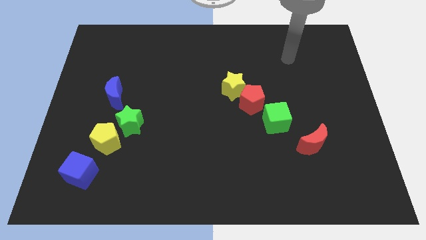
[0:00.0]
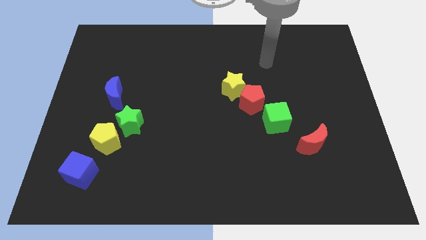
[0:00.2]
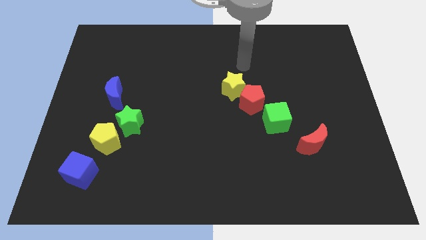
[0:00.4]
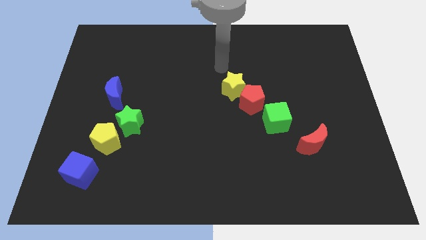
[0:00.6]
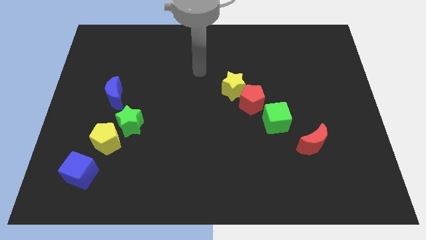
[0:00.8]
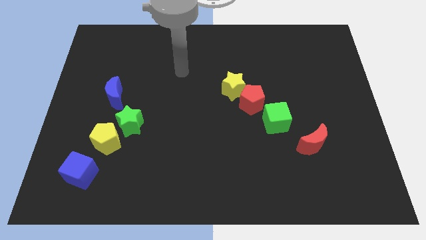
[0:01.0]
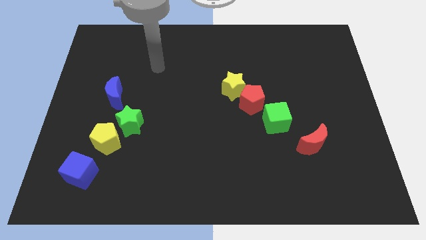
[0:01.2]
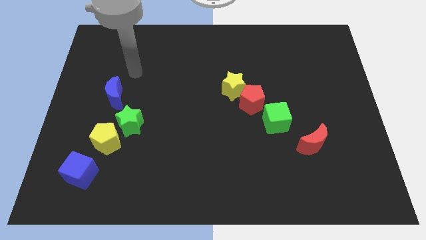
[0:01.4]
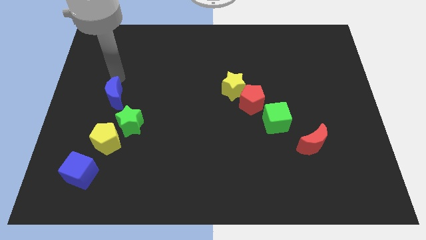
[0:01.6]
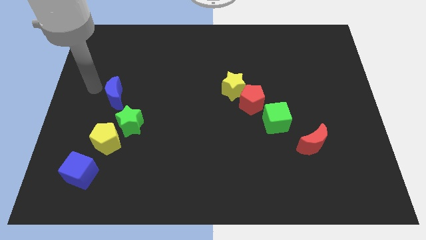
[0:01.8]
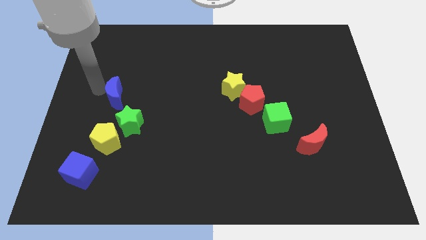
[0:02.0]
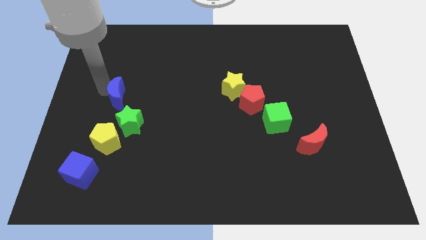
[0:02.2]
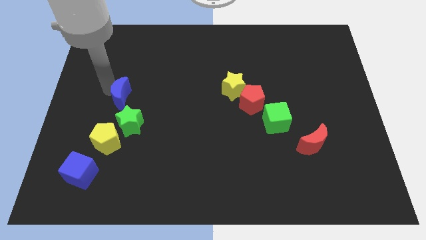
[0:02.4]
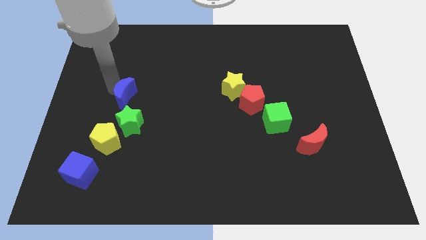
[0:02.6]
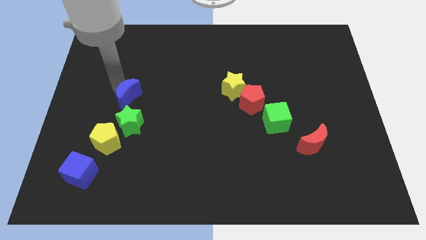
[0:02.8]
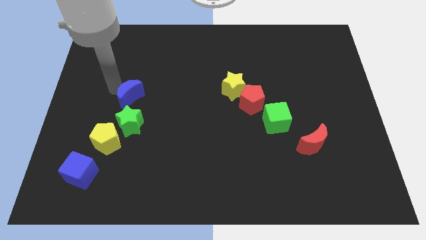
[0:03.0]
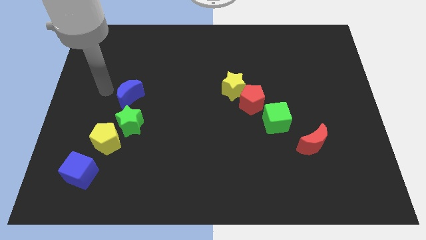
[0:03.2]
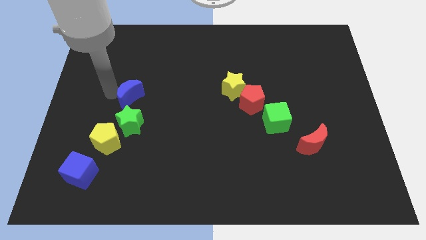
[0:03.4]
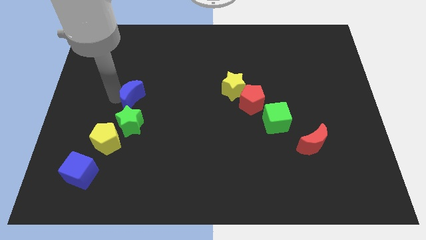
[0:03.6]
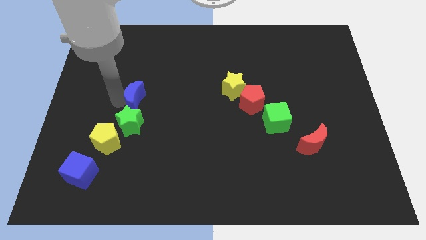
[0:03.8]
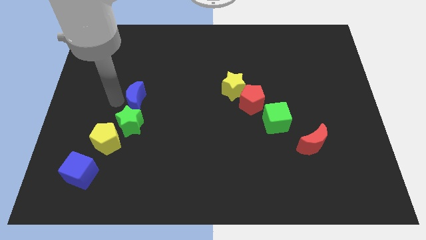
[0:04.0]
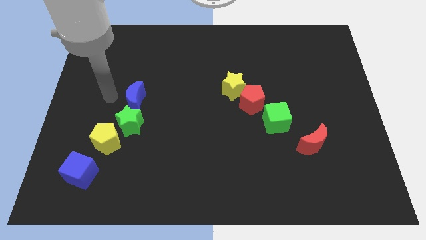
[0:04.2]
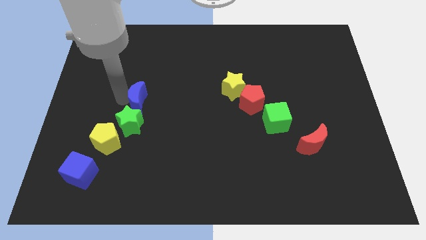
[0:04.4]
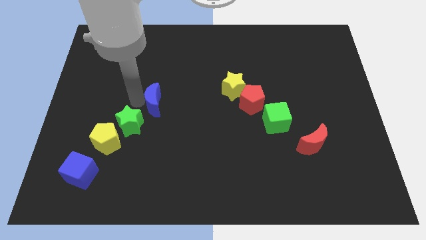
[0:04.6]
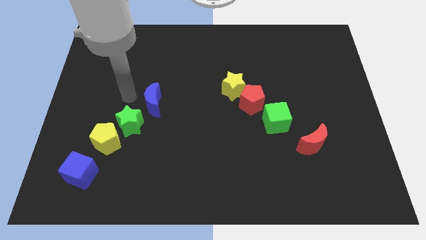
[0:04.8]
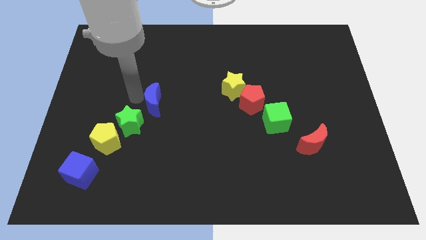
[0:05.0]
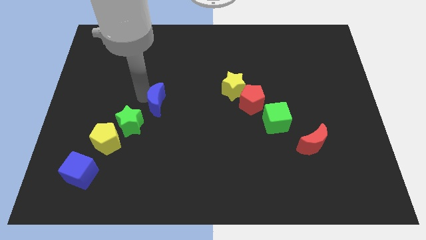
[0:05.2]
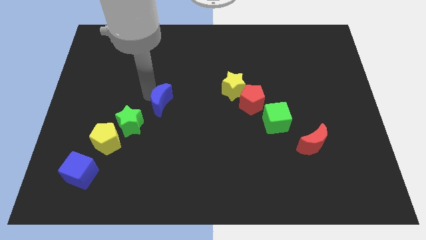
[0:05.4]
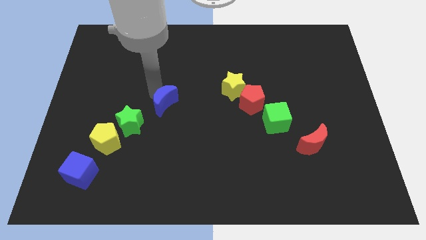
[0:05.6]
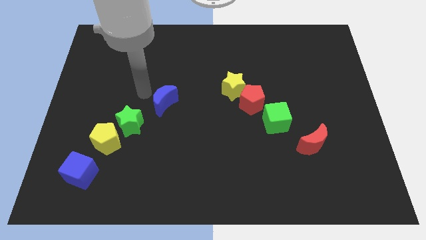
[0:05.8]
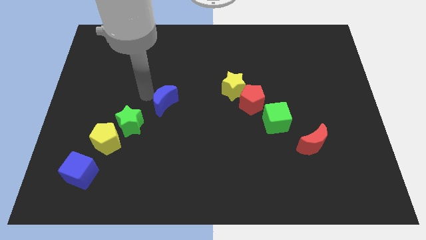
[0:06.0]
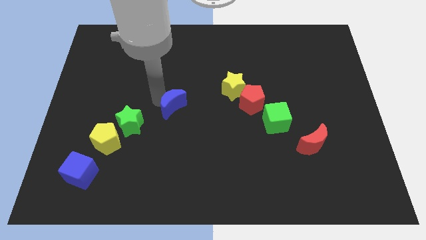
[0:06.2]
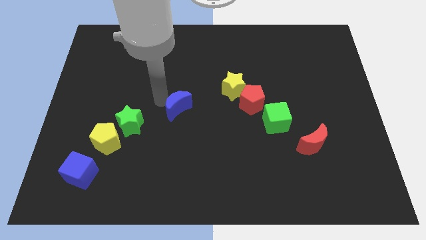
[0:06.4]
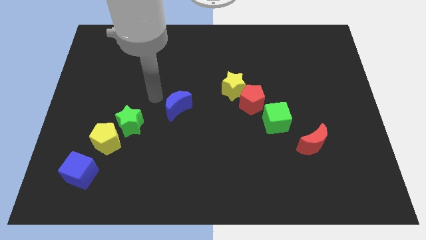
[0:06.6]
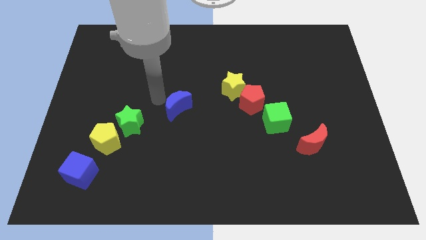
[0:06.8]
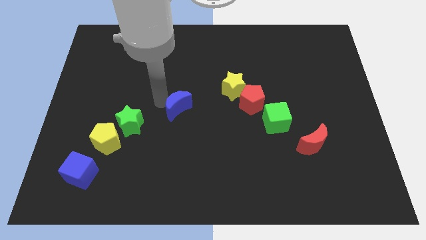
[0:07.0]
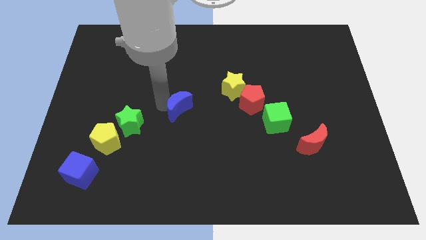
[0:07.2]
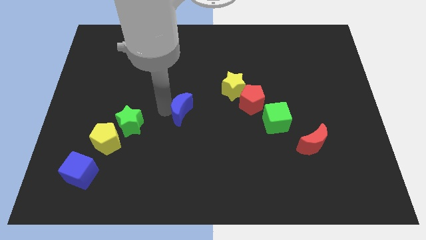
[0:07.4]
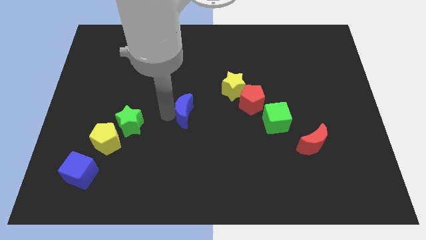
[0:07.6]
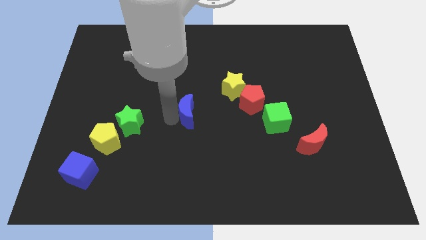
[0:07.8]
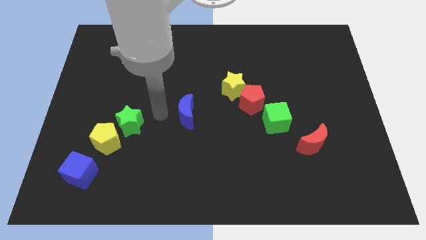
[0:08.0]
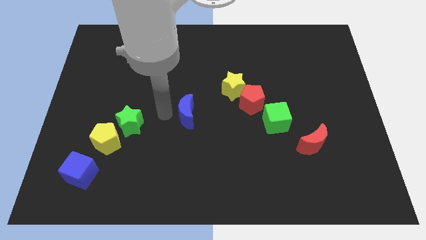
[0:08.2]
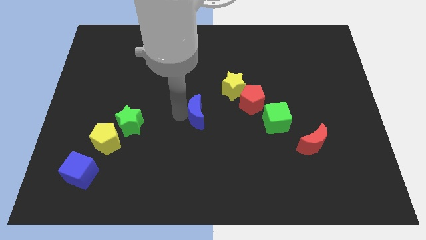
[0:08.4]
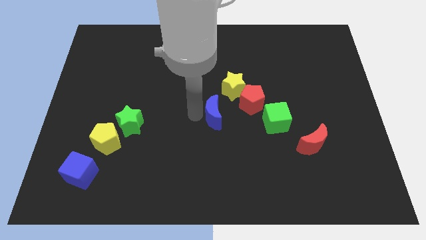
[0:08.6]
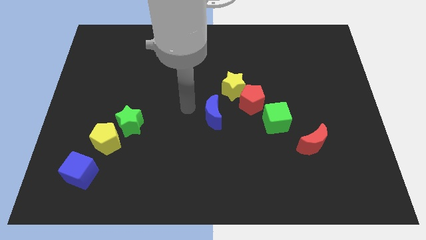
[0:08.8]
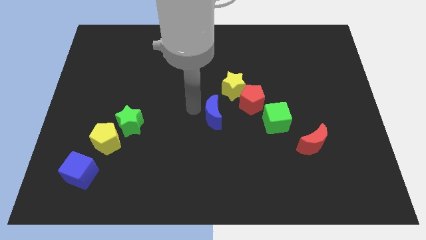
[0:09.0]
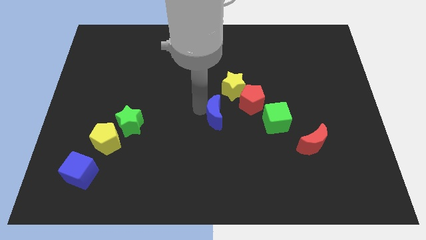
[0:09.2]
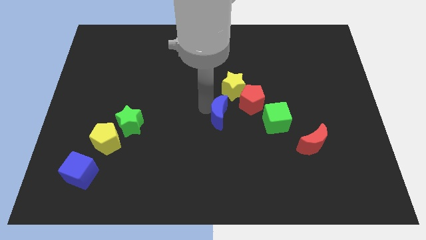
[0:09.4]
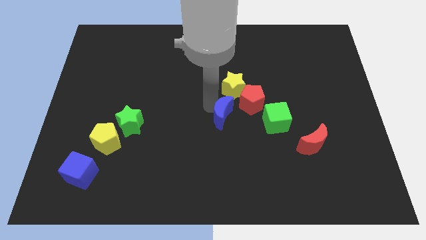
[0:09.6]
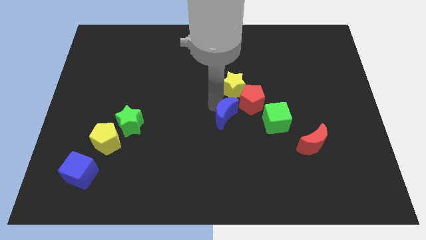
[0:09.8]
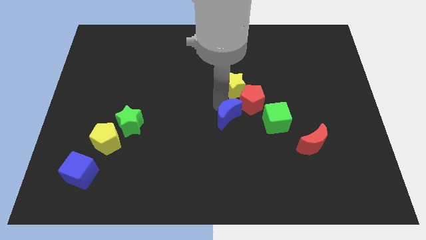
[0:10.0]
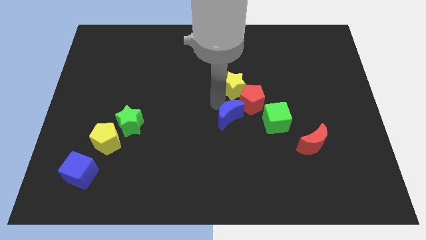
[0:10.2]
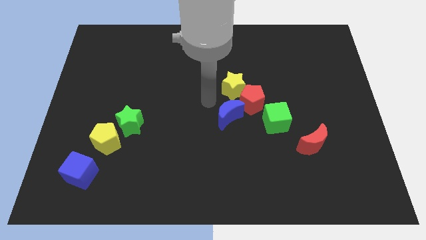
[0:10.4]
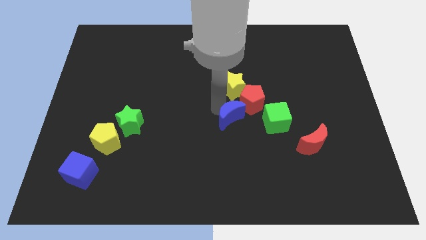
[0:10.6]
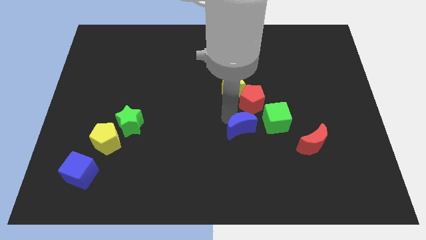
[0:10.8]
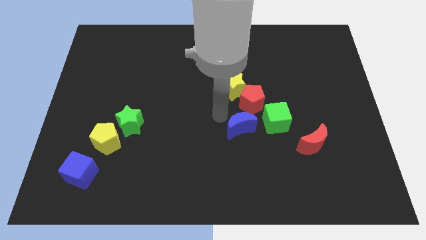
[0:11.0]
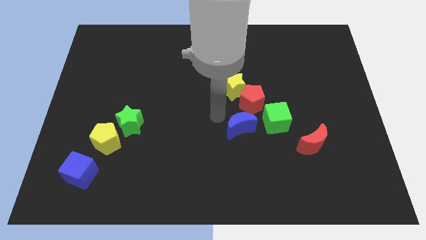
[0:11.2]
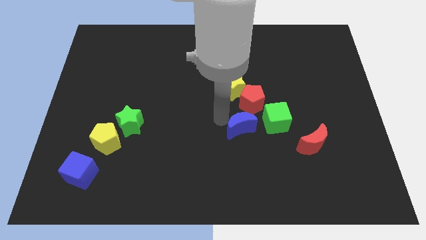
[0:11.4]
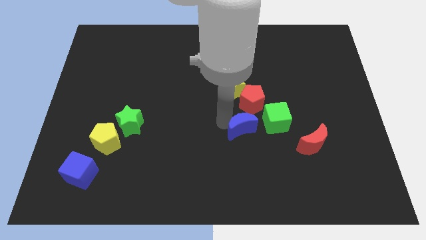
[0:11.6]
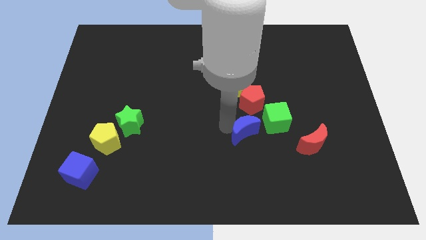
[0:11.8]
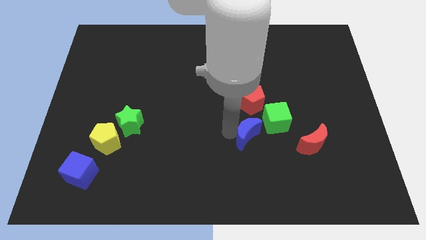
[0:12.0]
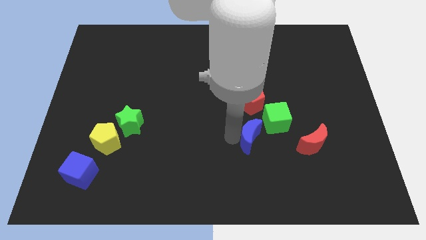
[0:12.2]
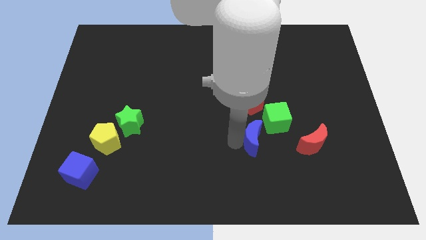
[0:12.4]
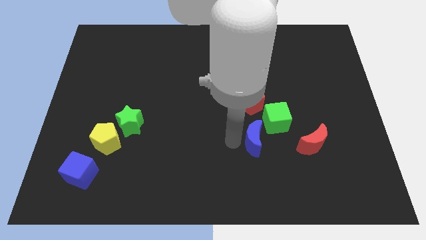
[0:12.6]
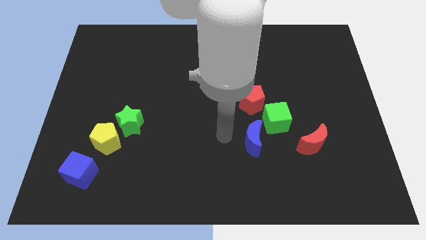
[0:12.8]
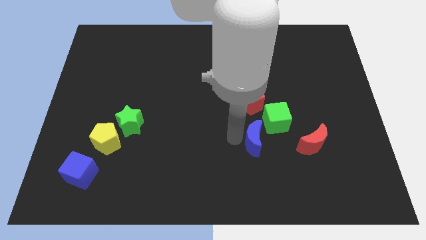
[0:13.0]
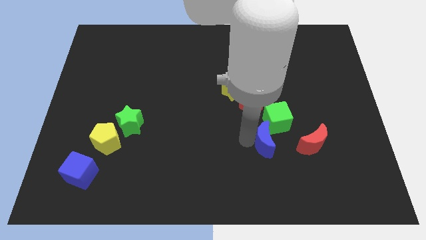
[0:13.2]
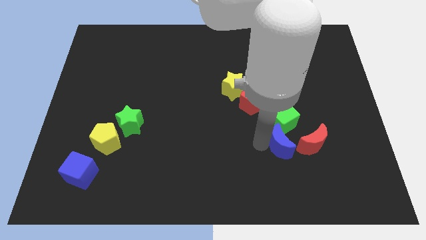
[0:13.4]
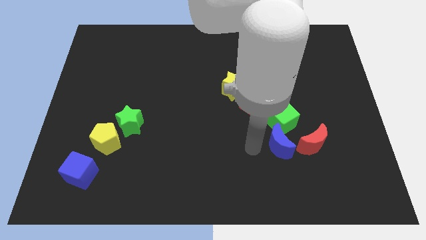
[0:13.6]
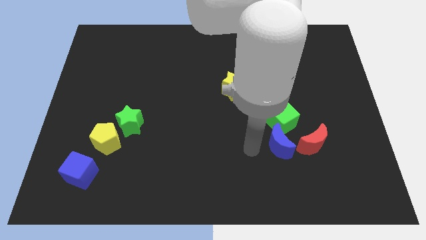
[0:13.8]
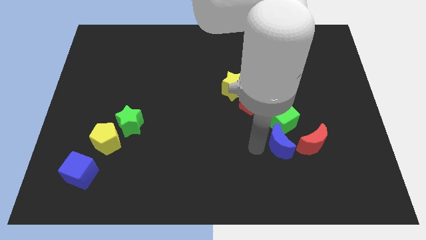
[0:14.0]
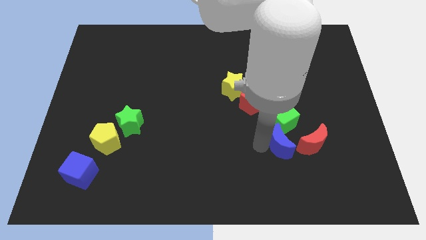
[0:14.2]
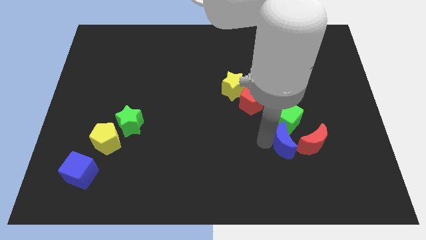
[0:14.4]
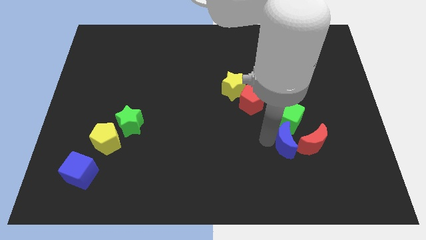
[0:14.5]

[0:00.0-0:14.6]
slide the blue moon next to the red moon

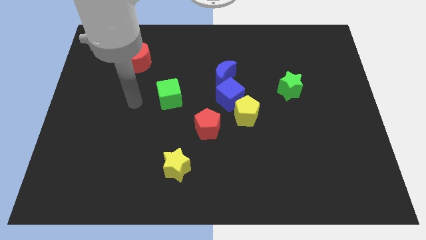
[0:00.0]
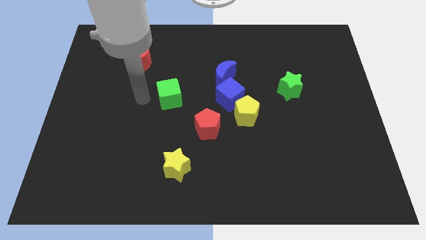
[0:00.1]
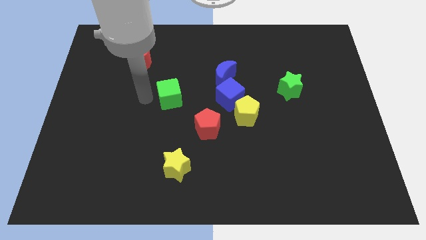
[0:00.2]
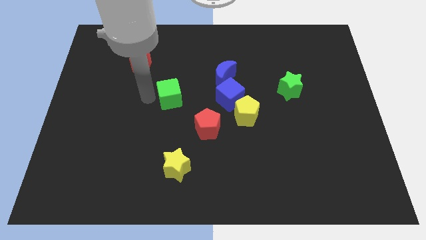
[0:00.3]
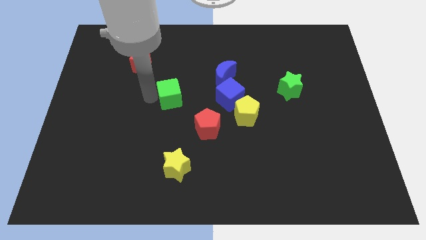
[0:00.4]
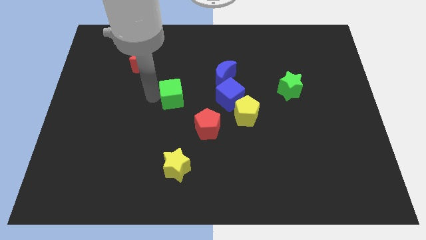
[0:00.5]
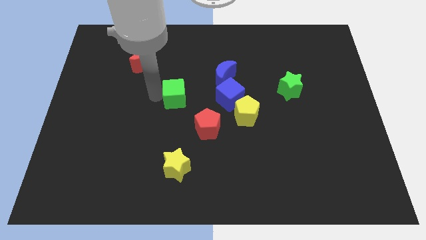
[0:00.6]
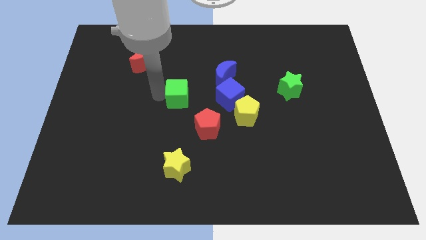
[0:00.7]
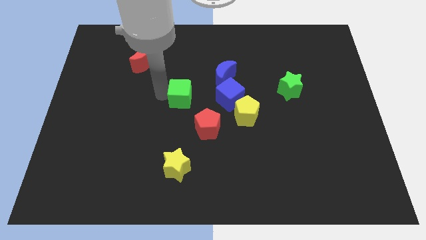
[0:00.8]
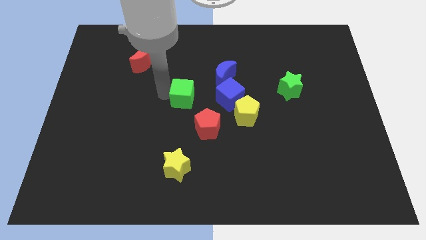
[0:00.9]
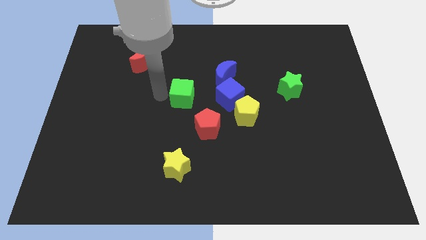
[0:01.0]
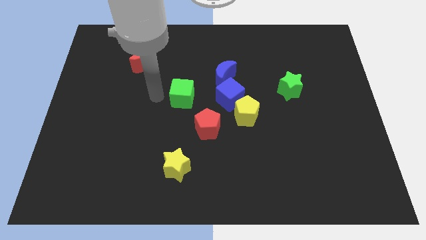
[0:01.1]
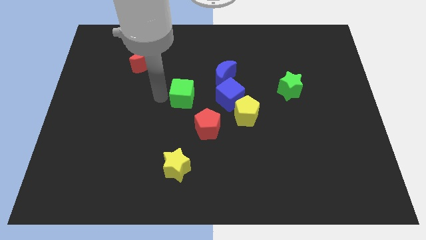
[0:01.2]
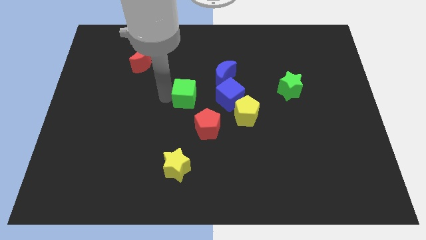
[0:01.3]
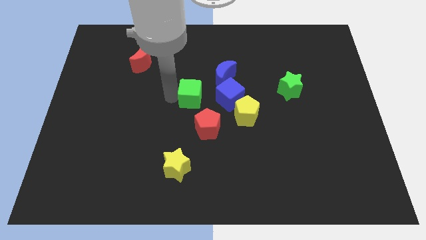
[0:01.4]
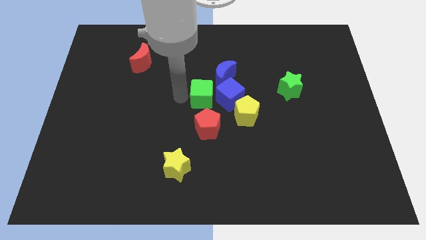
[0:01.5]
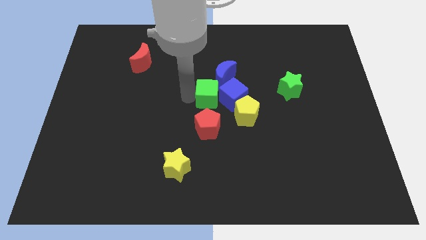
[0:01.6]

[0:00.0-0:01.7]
slide the green cube next to the blue cube
